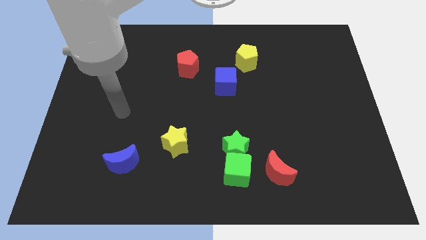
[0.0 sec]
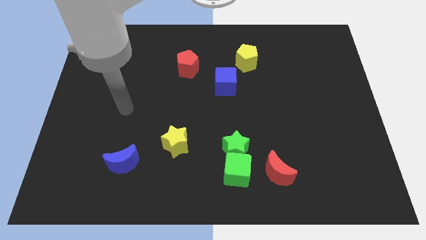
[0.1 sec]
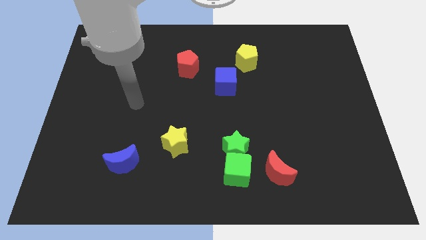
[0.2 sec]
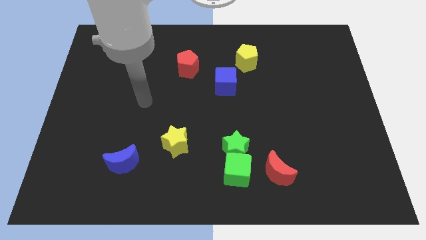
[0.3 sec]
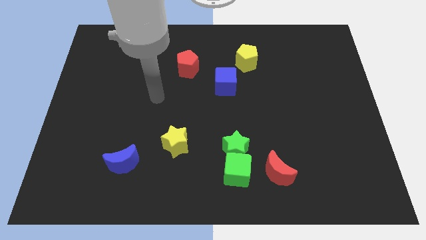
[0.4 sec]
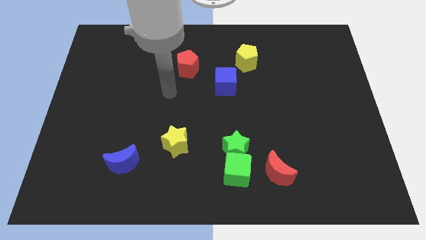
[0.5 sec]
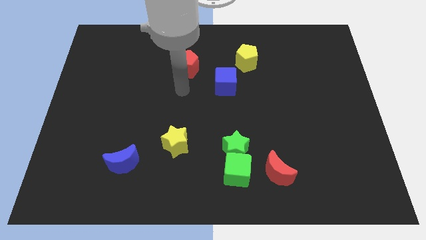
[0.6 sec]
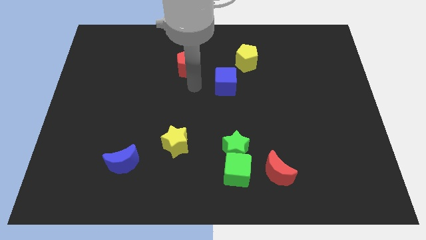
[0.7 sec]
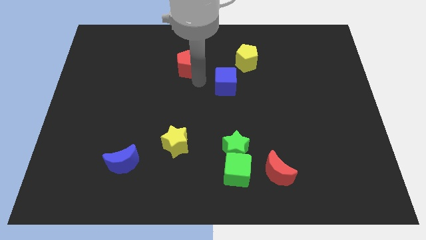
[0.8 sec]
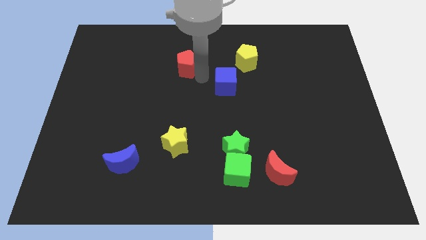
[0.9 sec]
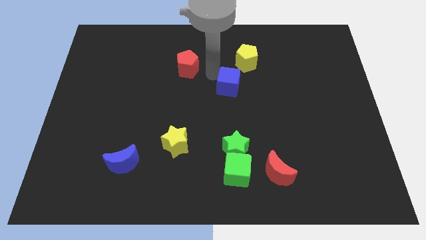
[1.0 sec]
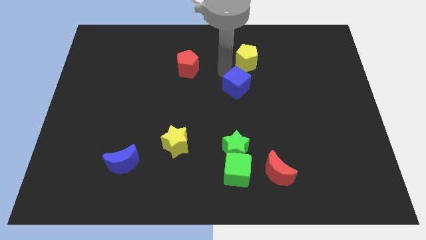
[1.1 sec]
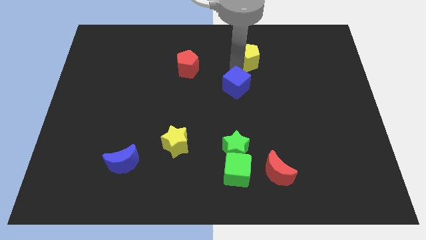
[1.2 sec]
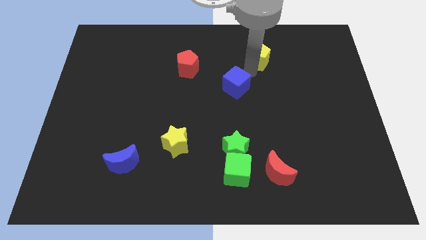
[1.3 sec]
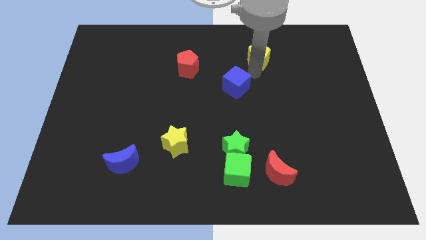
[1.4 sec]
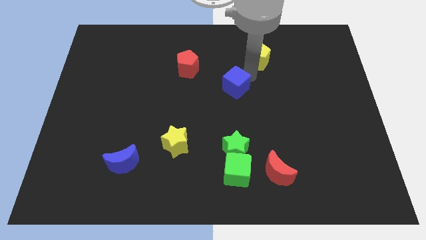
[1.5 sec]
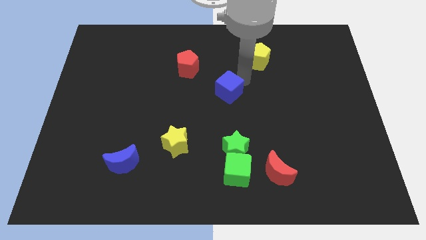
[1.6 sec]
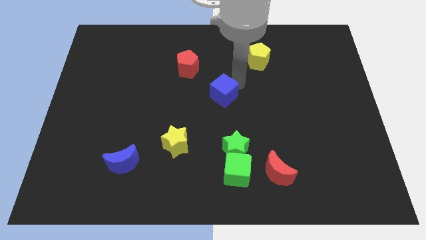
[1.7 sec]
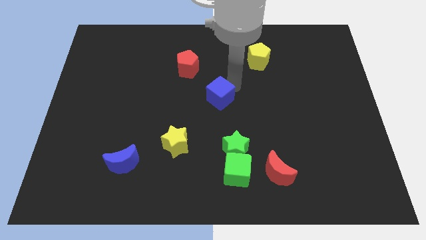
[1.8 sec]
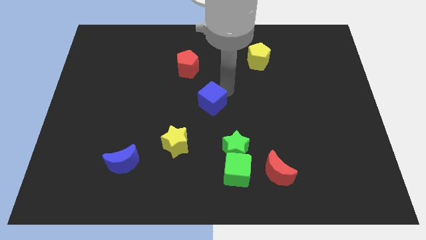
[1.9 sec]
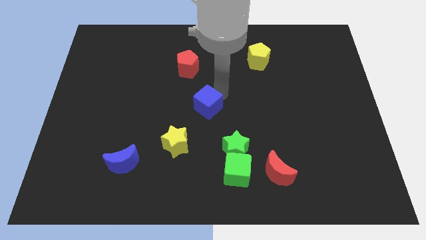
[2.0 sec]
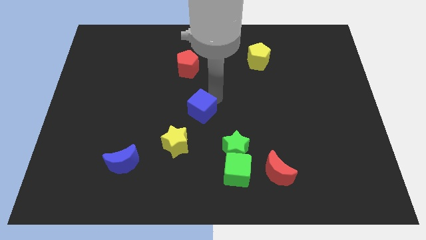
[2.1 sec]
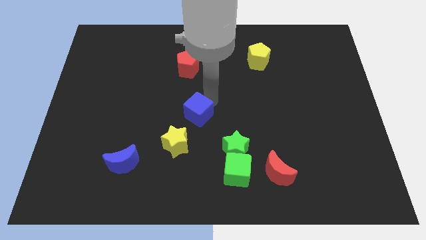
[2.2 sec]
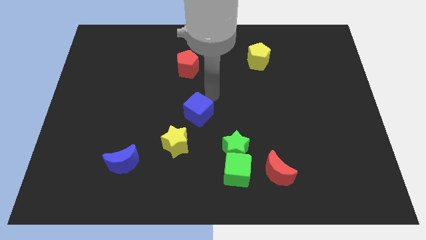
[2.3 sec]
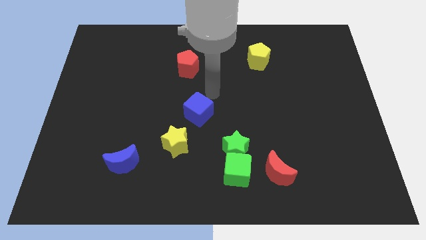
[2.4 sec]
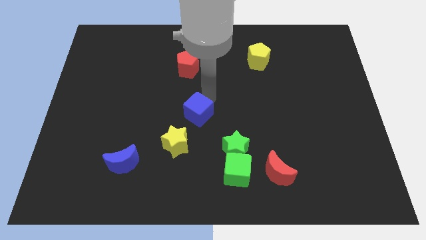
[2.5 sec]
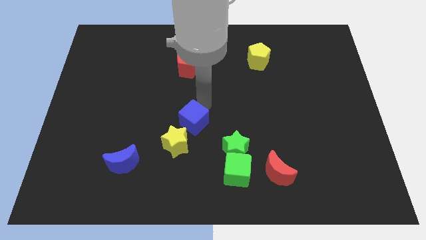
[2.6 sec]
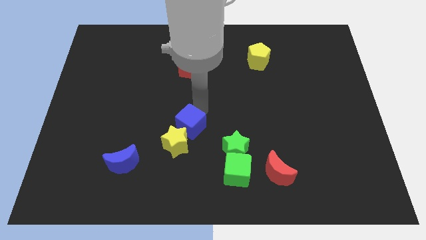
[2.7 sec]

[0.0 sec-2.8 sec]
move the blue cube next to the yellow star

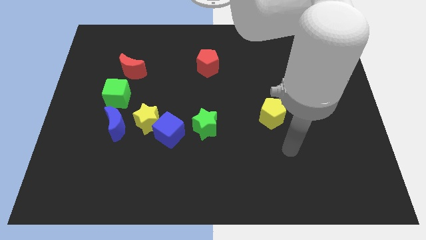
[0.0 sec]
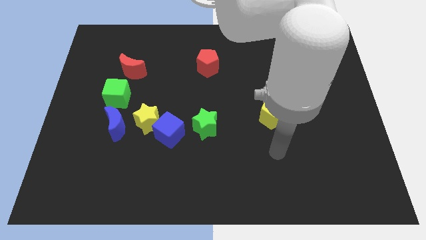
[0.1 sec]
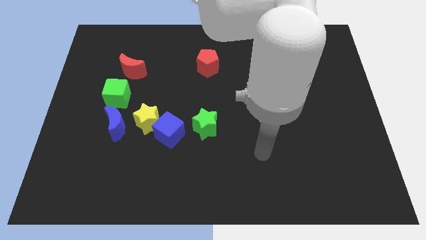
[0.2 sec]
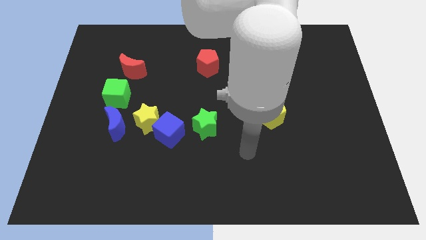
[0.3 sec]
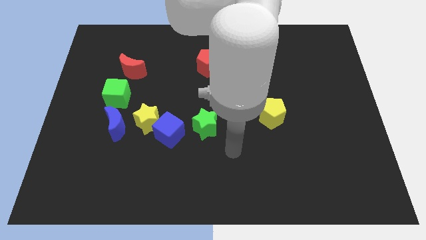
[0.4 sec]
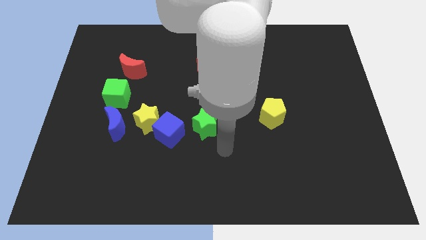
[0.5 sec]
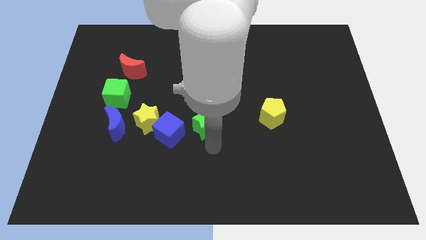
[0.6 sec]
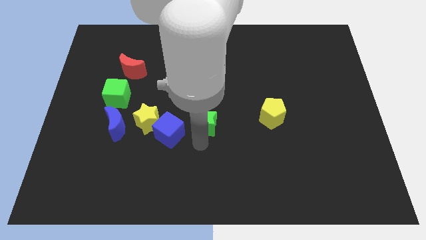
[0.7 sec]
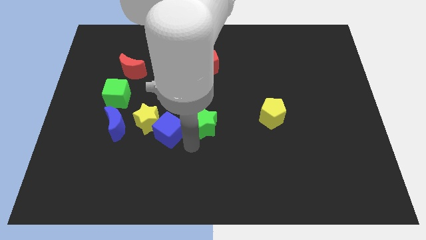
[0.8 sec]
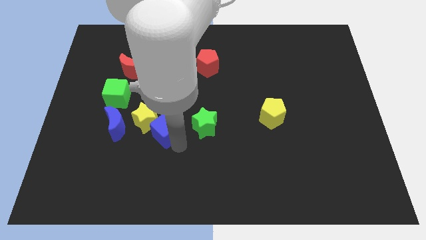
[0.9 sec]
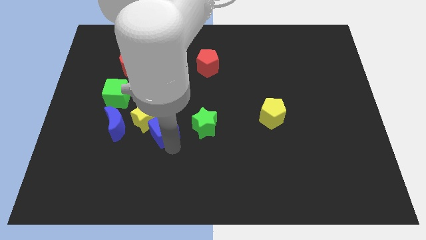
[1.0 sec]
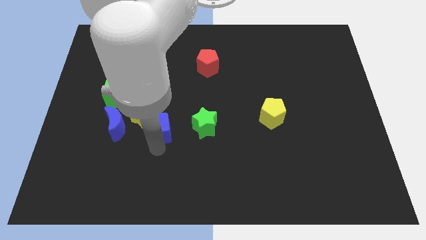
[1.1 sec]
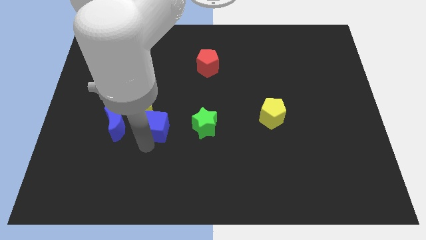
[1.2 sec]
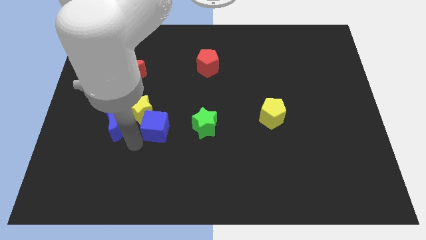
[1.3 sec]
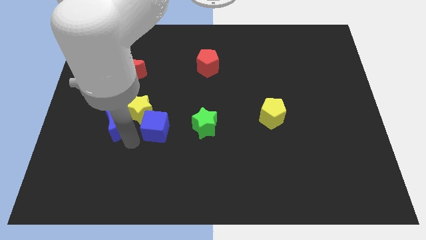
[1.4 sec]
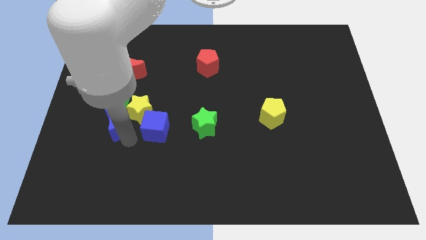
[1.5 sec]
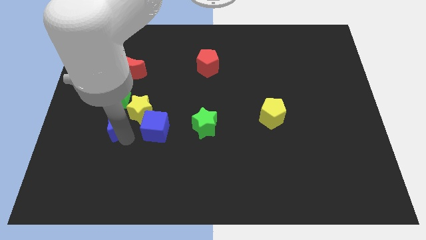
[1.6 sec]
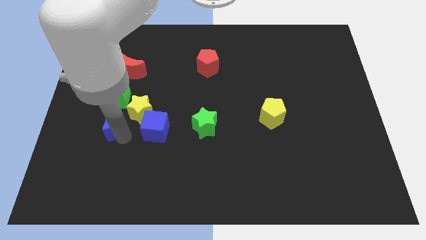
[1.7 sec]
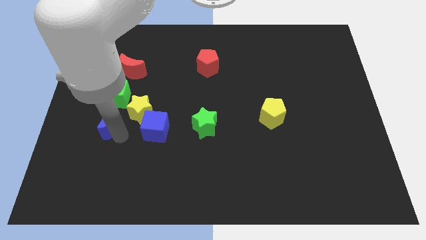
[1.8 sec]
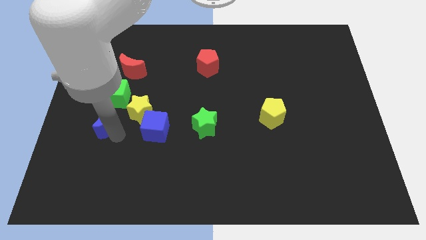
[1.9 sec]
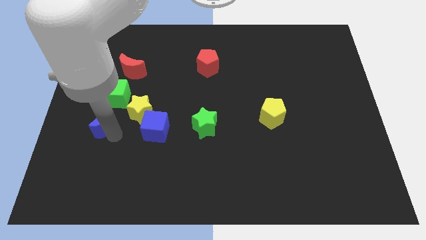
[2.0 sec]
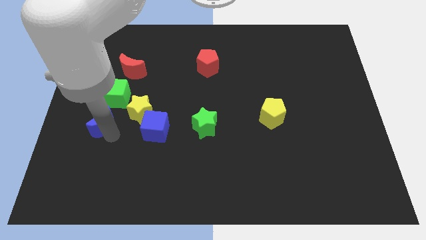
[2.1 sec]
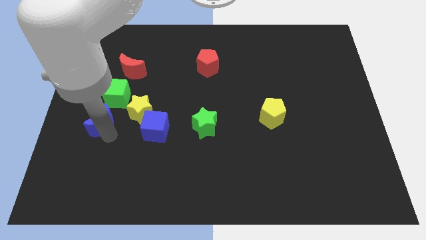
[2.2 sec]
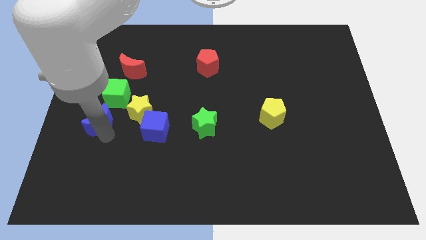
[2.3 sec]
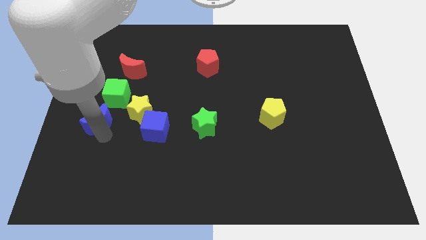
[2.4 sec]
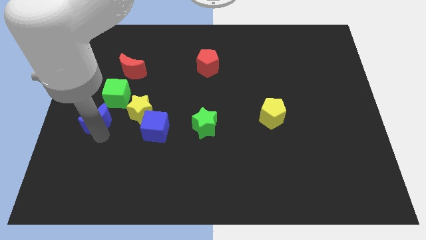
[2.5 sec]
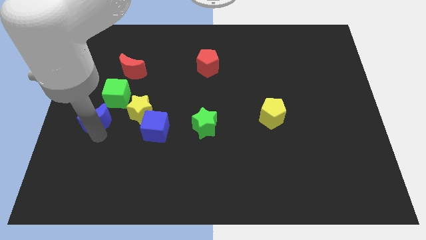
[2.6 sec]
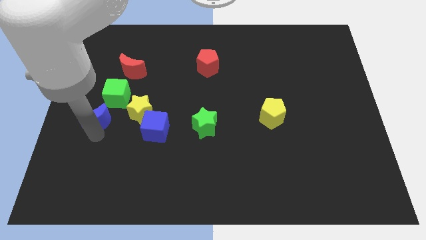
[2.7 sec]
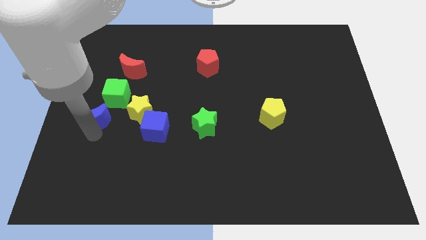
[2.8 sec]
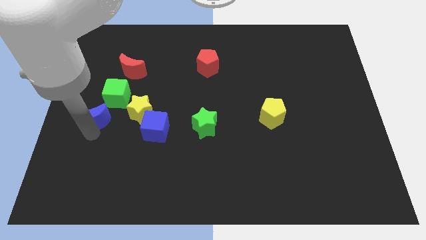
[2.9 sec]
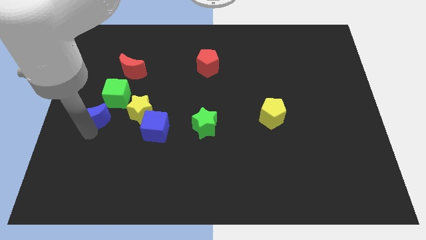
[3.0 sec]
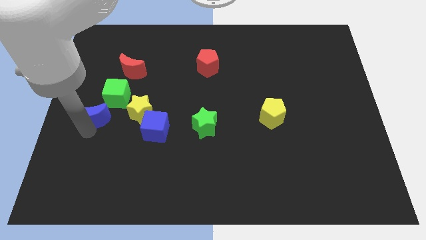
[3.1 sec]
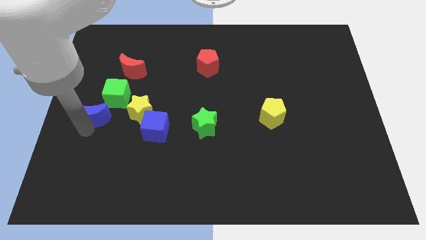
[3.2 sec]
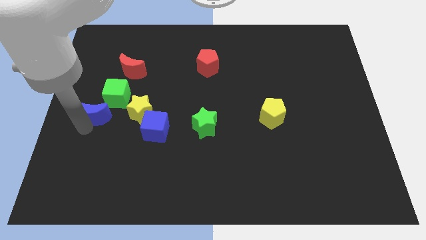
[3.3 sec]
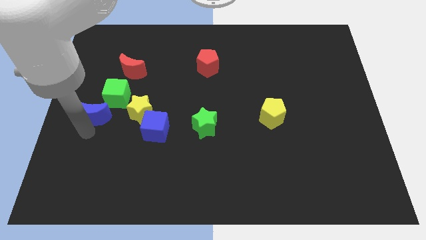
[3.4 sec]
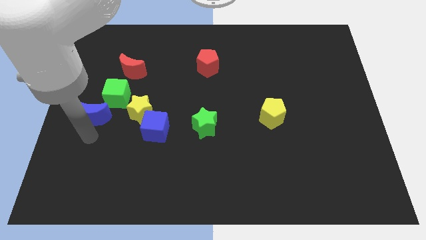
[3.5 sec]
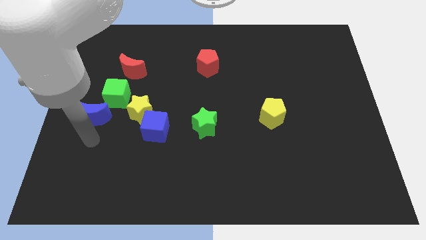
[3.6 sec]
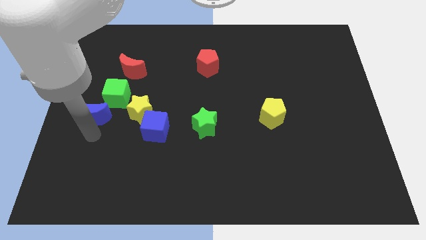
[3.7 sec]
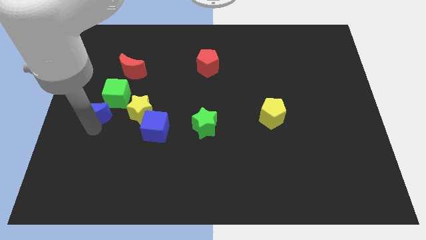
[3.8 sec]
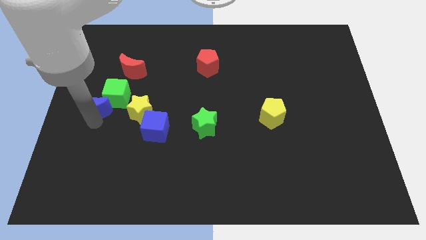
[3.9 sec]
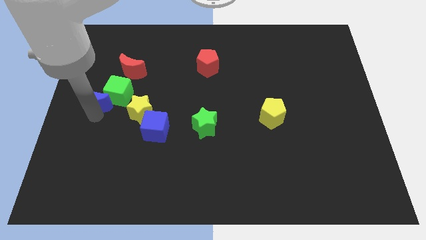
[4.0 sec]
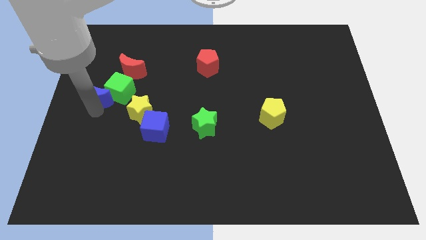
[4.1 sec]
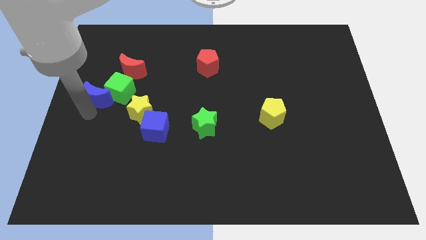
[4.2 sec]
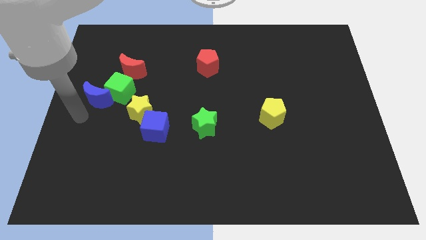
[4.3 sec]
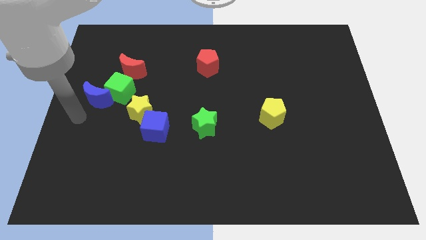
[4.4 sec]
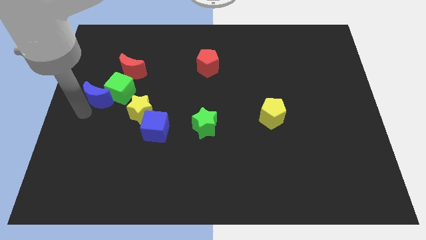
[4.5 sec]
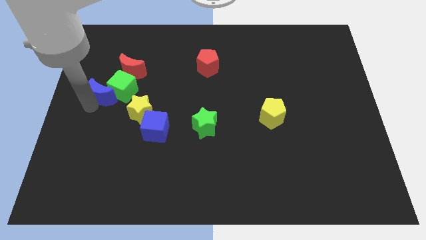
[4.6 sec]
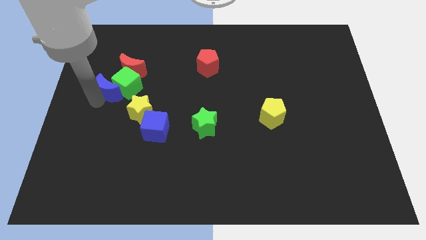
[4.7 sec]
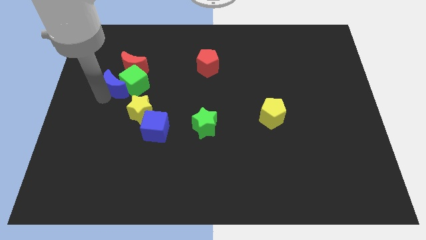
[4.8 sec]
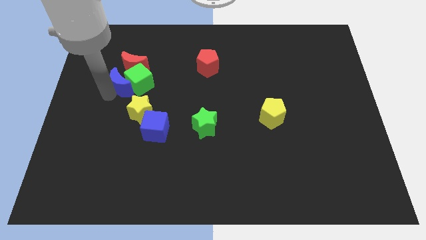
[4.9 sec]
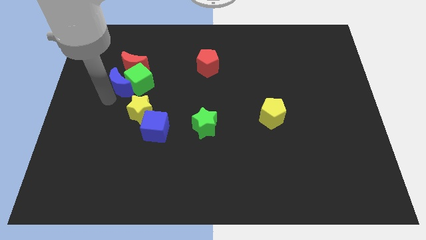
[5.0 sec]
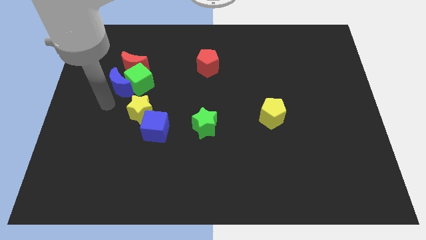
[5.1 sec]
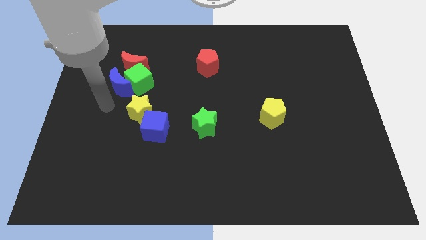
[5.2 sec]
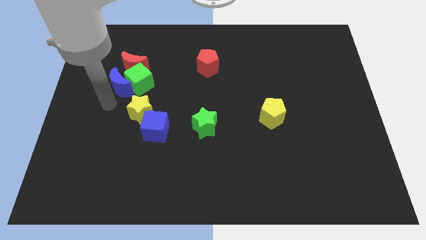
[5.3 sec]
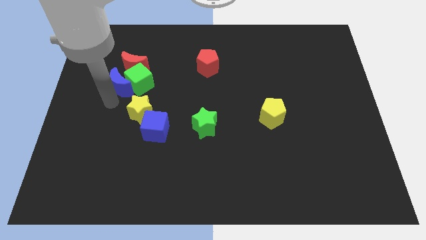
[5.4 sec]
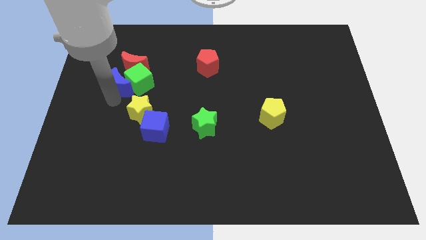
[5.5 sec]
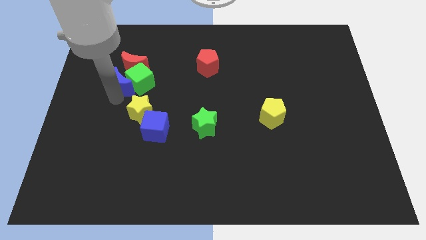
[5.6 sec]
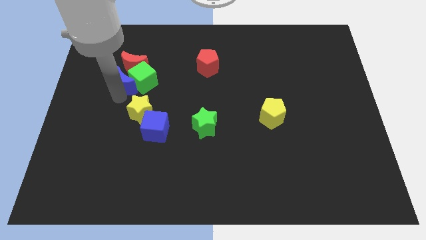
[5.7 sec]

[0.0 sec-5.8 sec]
push the blue moon next to the red moon
